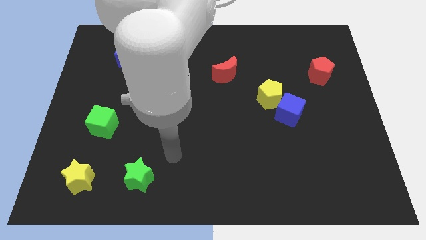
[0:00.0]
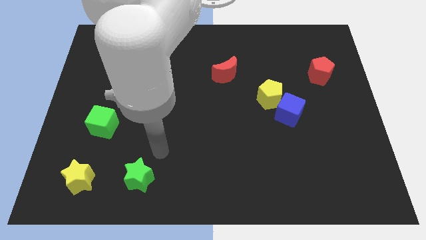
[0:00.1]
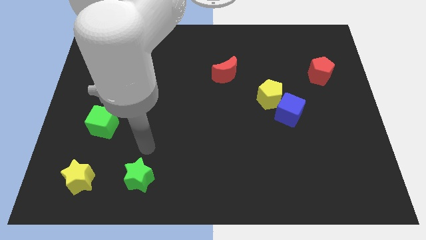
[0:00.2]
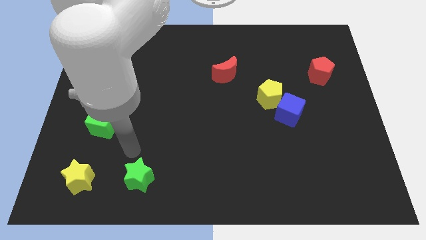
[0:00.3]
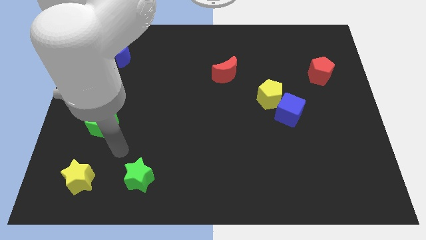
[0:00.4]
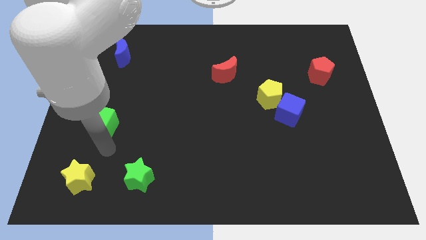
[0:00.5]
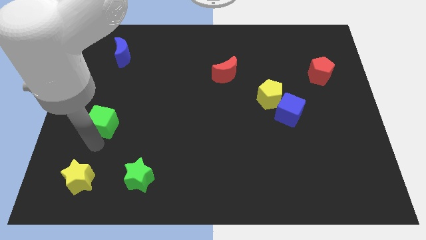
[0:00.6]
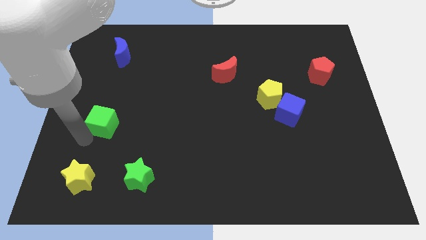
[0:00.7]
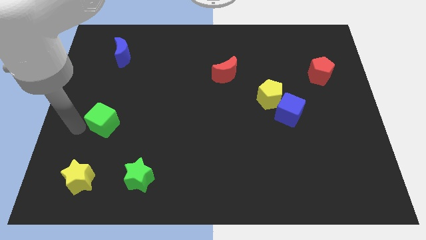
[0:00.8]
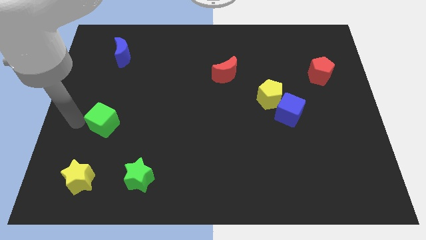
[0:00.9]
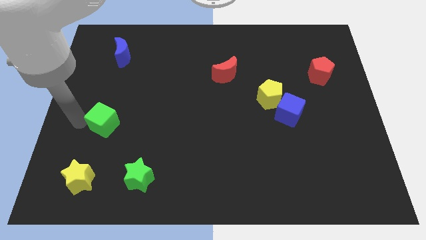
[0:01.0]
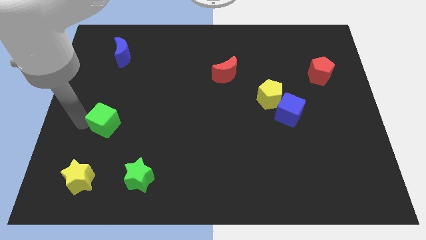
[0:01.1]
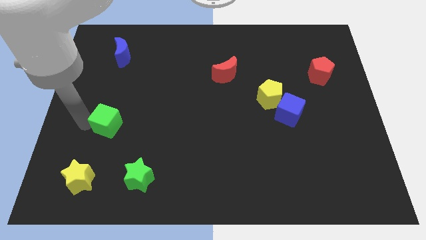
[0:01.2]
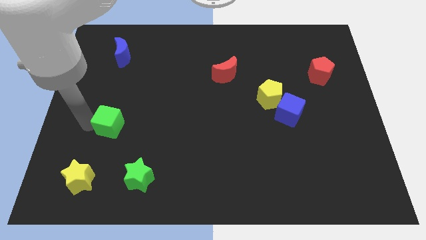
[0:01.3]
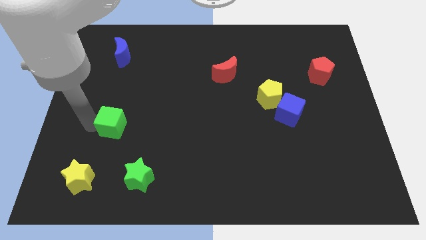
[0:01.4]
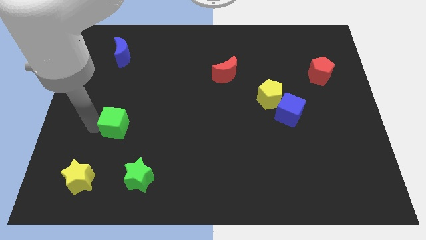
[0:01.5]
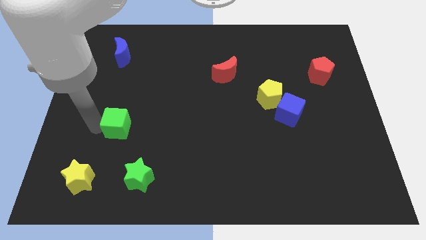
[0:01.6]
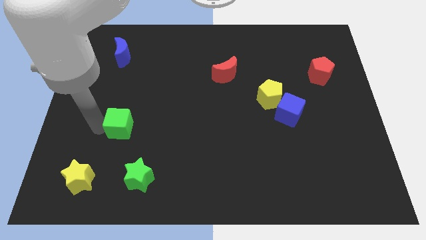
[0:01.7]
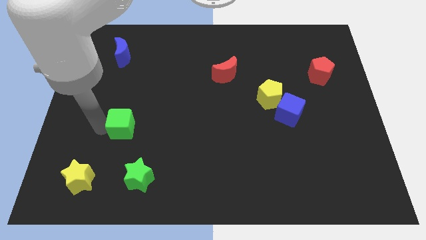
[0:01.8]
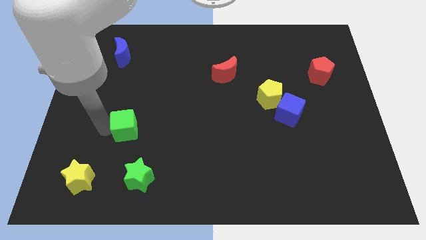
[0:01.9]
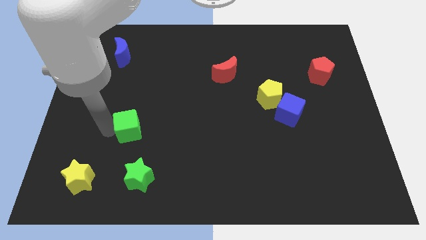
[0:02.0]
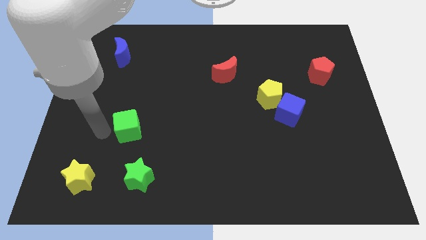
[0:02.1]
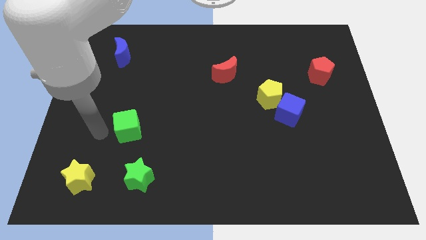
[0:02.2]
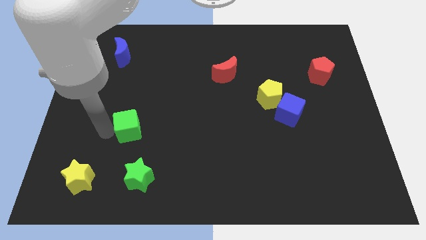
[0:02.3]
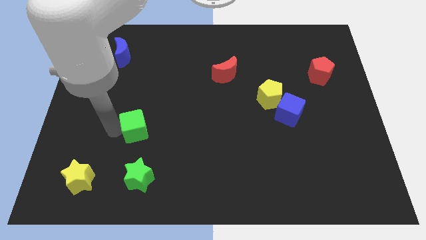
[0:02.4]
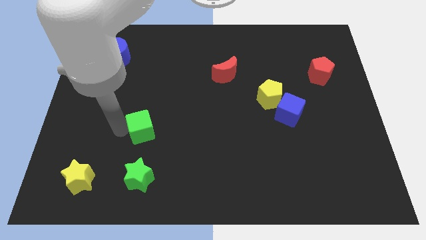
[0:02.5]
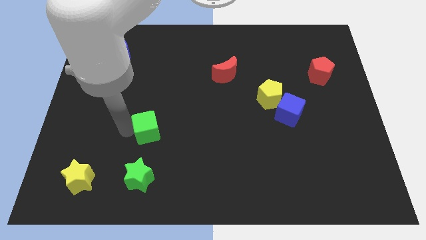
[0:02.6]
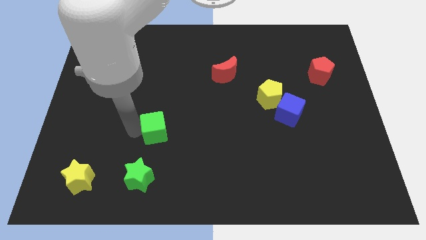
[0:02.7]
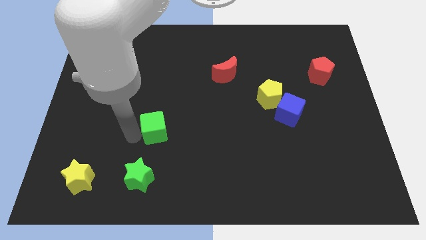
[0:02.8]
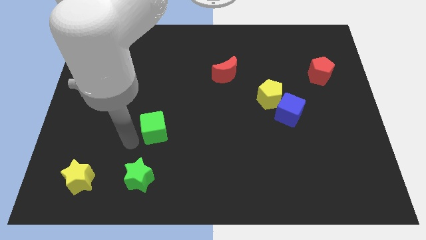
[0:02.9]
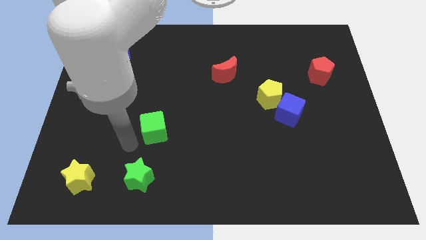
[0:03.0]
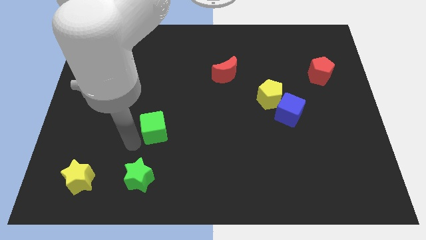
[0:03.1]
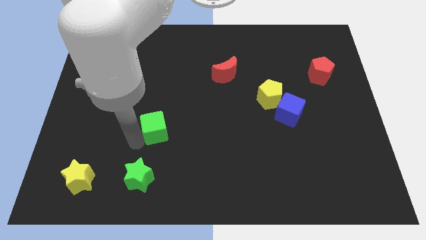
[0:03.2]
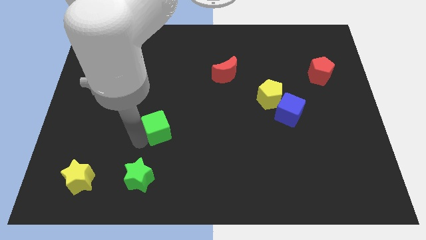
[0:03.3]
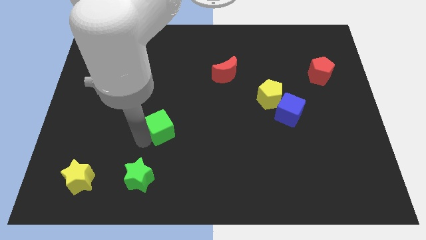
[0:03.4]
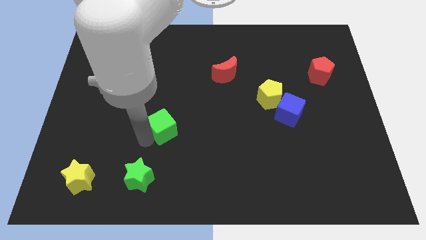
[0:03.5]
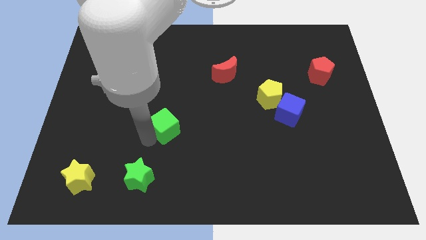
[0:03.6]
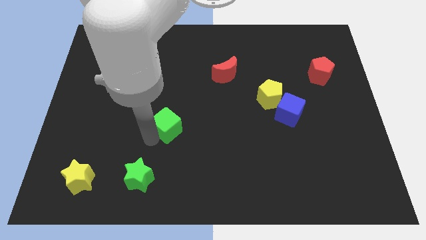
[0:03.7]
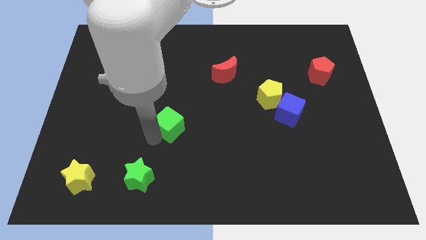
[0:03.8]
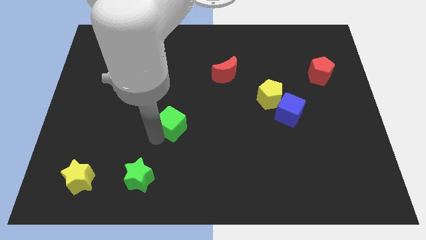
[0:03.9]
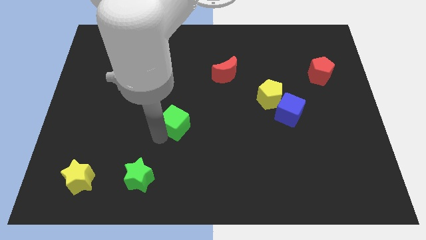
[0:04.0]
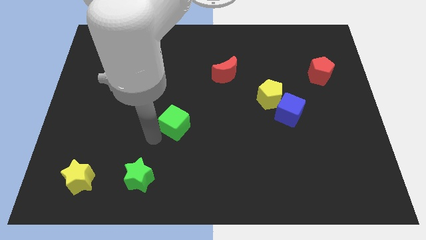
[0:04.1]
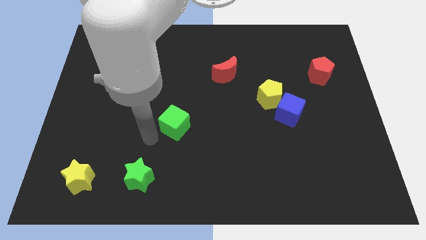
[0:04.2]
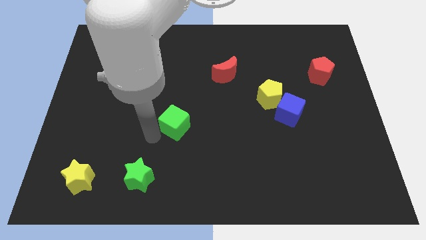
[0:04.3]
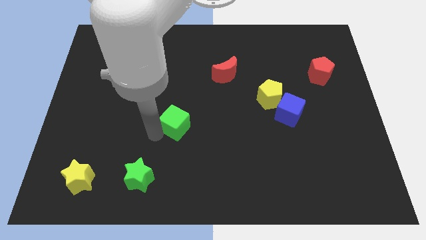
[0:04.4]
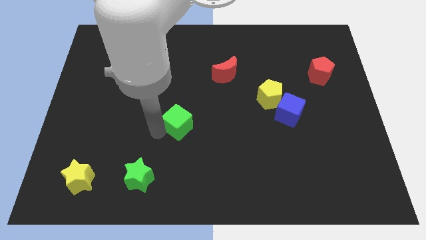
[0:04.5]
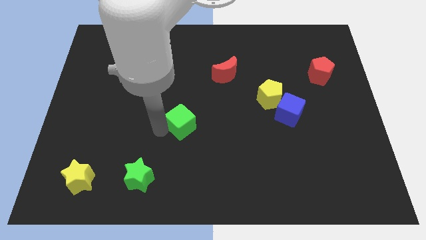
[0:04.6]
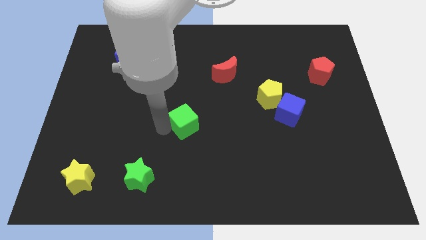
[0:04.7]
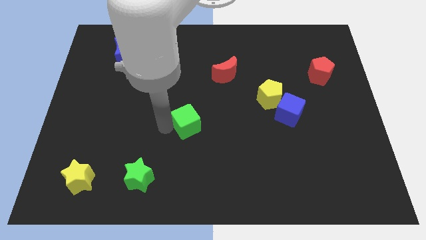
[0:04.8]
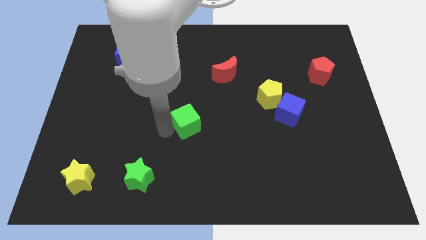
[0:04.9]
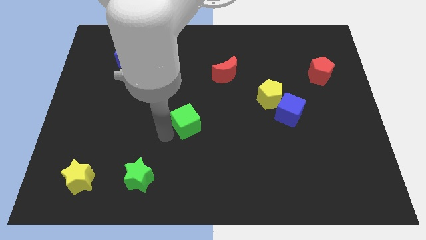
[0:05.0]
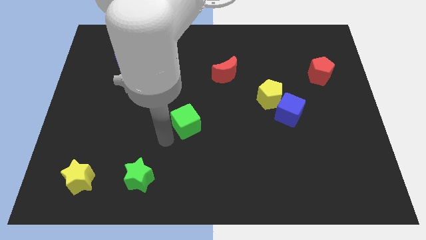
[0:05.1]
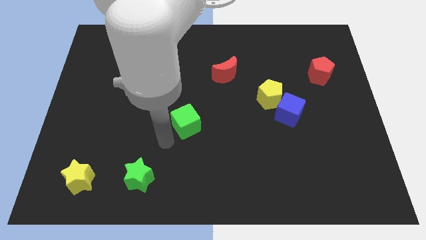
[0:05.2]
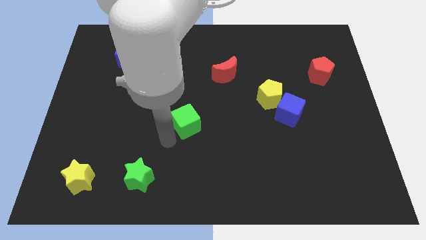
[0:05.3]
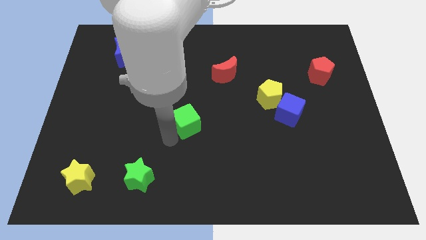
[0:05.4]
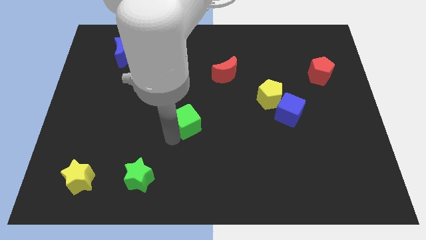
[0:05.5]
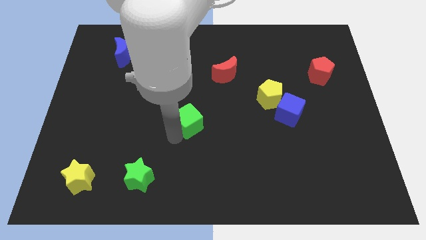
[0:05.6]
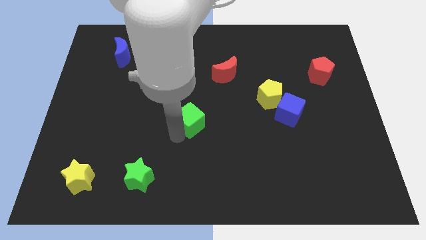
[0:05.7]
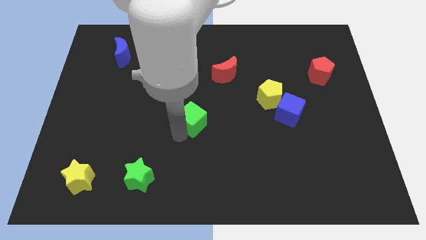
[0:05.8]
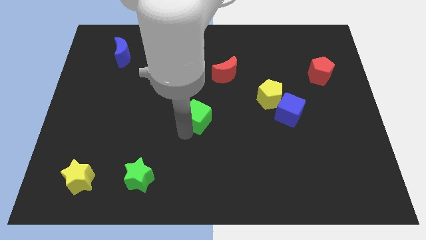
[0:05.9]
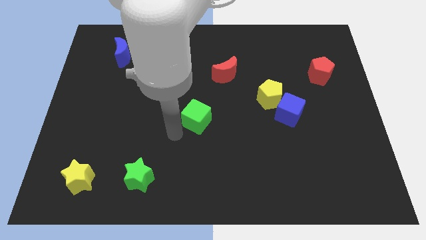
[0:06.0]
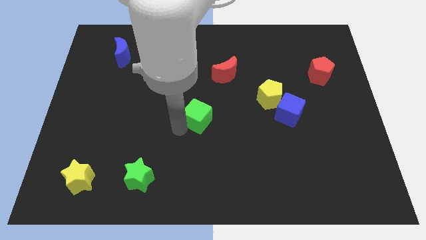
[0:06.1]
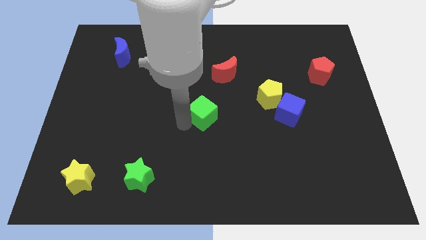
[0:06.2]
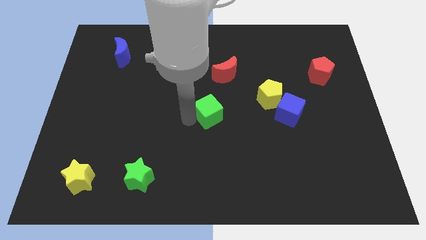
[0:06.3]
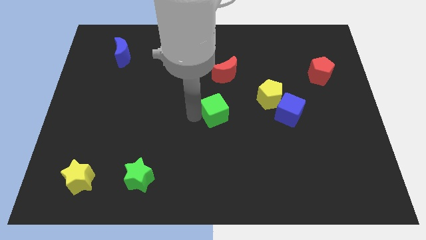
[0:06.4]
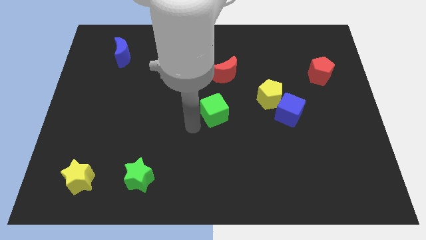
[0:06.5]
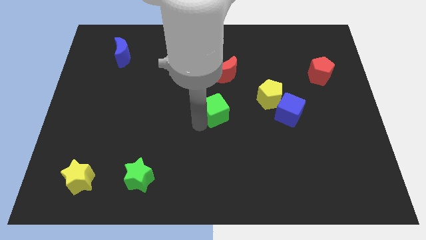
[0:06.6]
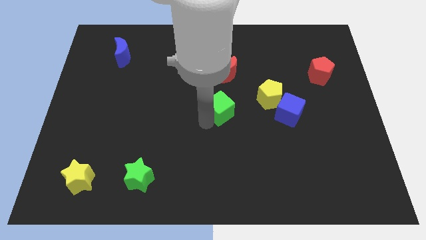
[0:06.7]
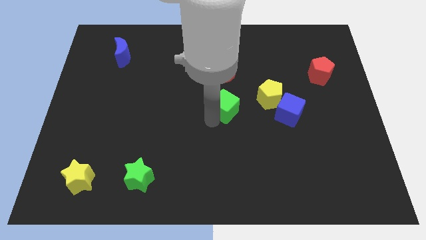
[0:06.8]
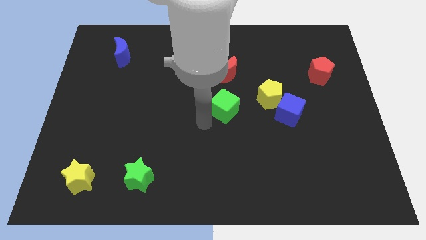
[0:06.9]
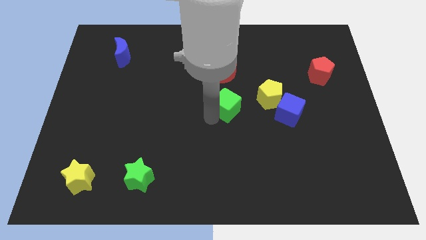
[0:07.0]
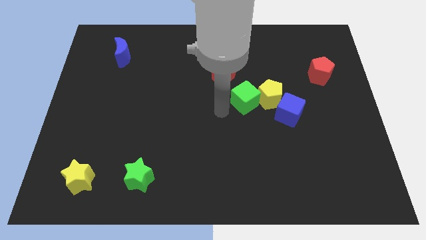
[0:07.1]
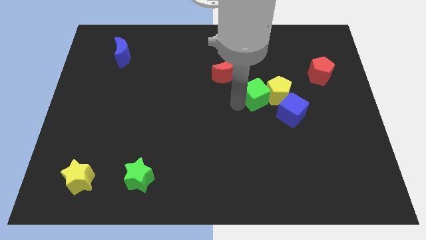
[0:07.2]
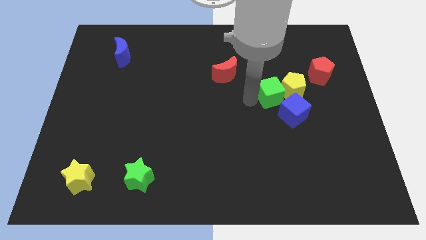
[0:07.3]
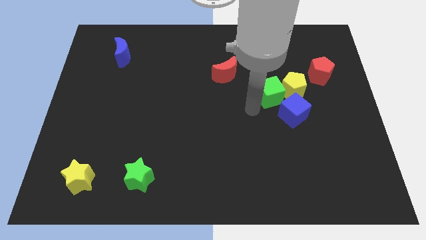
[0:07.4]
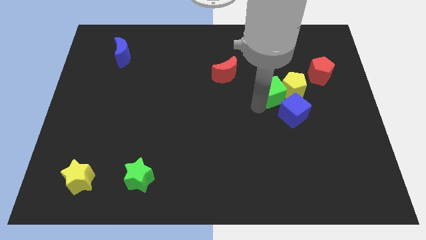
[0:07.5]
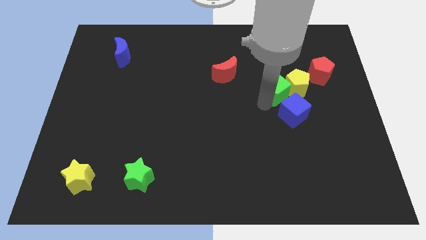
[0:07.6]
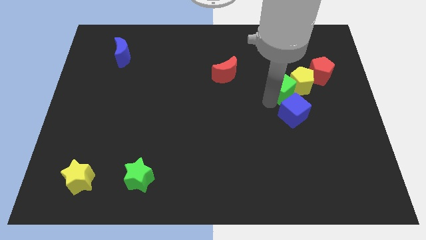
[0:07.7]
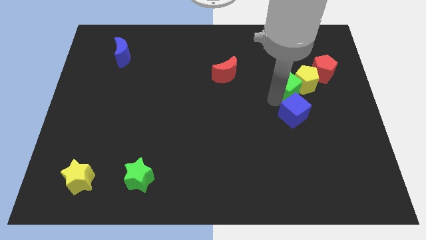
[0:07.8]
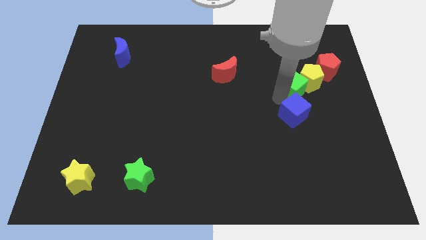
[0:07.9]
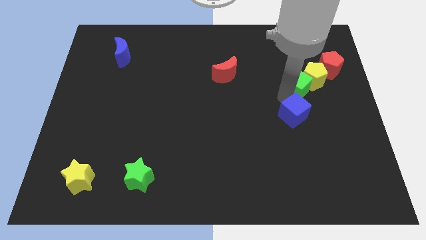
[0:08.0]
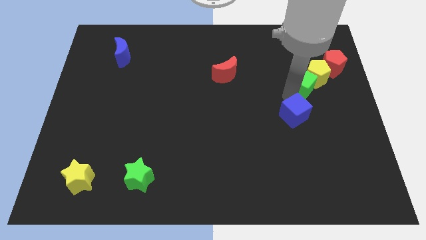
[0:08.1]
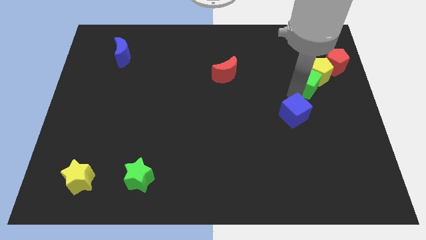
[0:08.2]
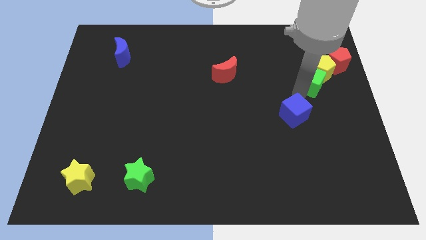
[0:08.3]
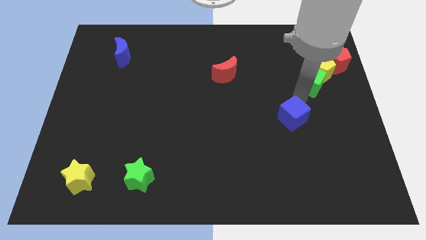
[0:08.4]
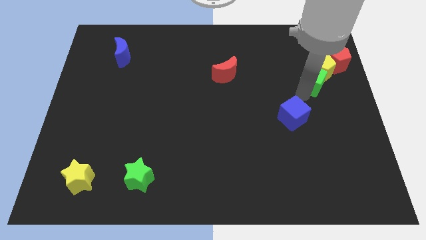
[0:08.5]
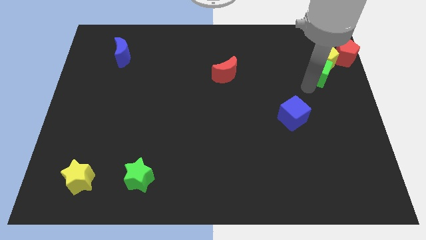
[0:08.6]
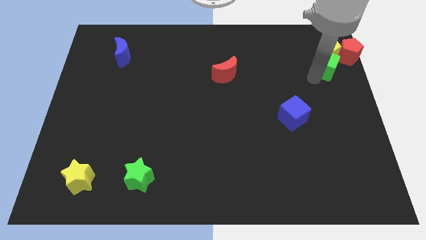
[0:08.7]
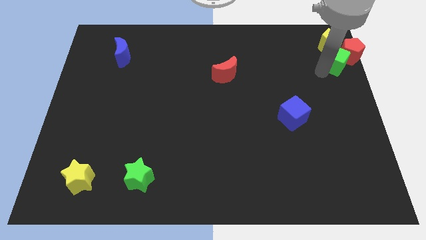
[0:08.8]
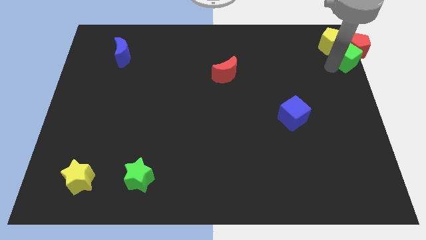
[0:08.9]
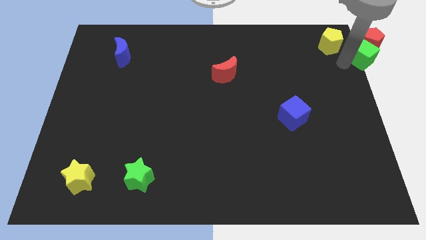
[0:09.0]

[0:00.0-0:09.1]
put the green cube to the top right corner
